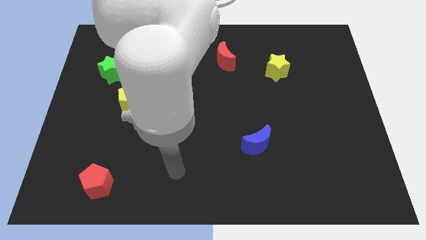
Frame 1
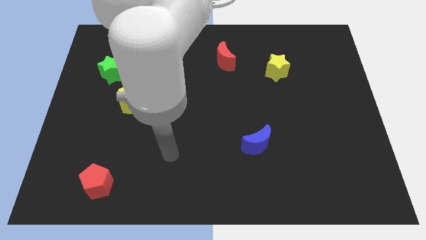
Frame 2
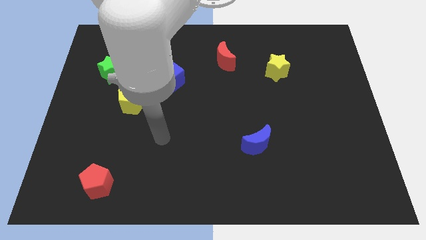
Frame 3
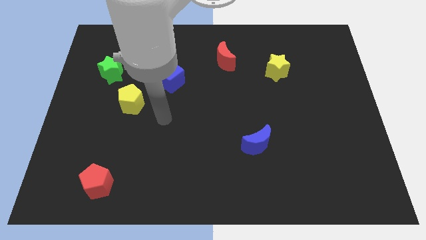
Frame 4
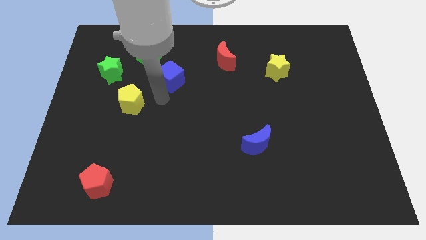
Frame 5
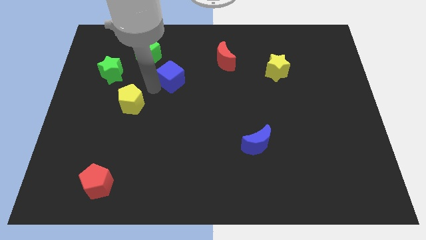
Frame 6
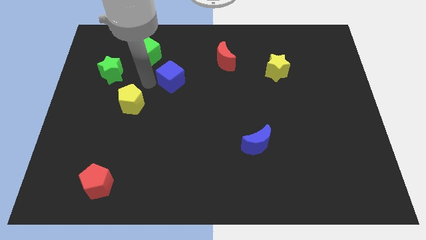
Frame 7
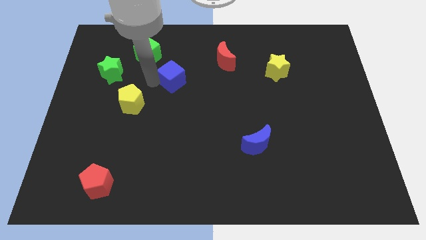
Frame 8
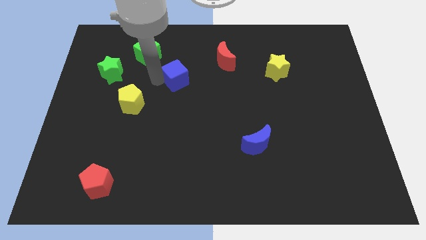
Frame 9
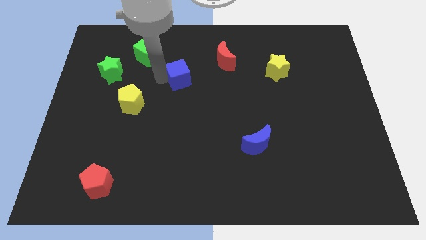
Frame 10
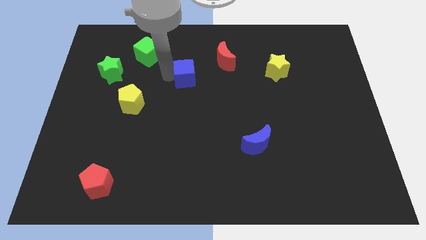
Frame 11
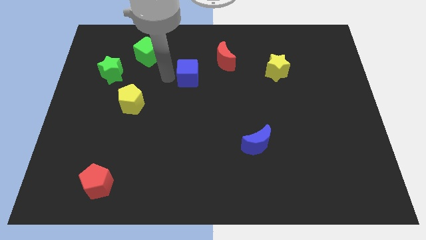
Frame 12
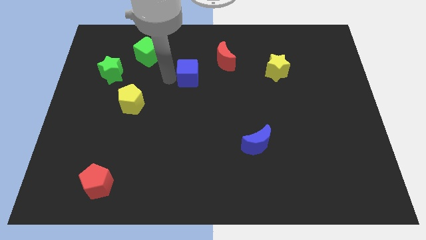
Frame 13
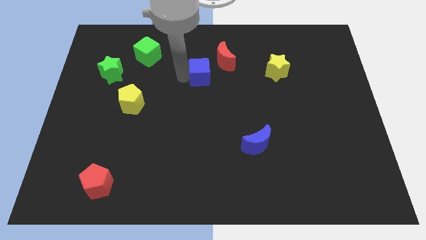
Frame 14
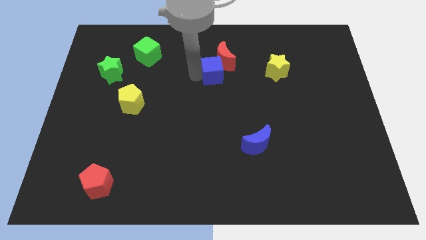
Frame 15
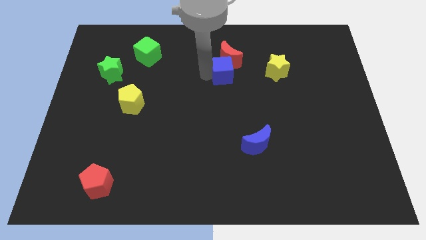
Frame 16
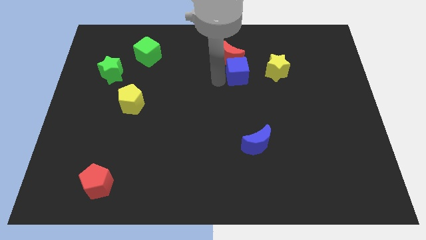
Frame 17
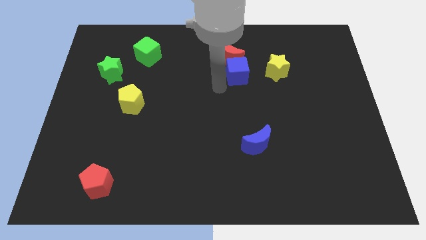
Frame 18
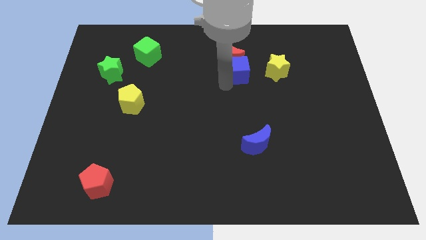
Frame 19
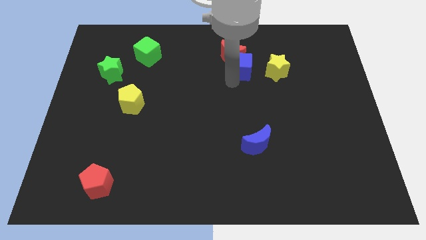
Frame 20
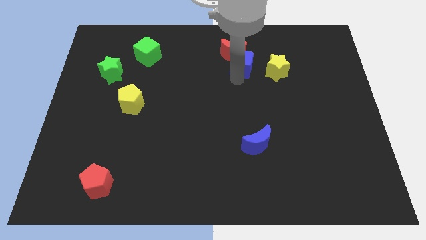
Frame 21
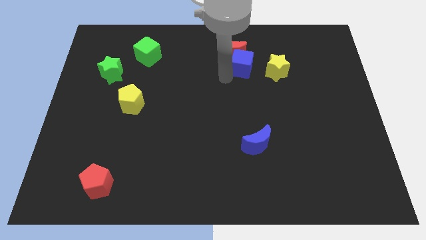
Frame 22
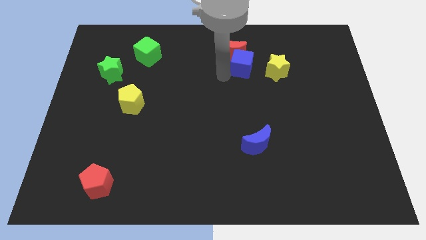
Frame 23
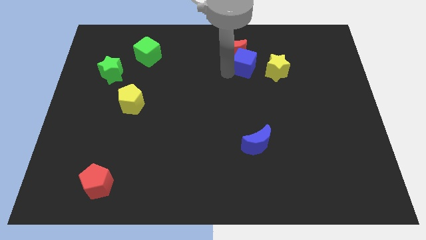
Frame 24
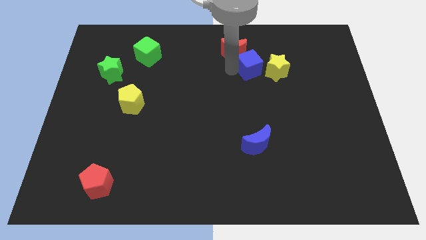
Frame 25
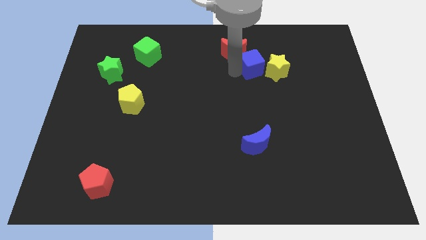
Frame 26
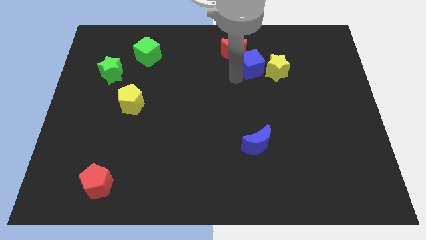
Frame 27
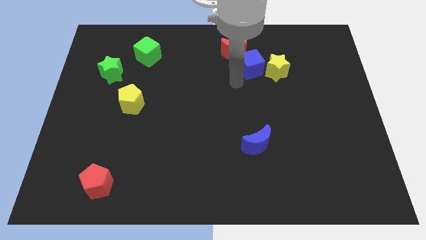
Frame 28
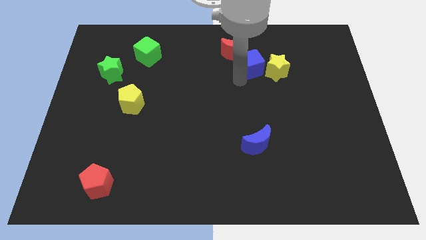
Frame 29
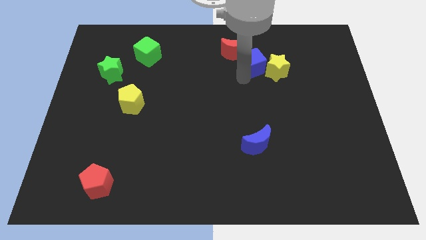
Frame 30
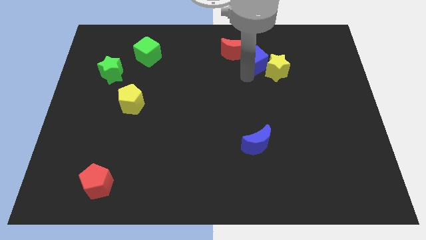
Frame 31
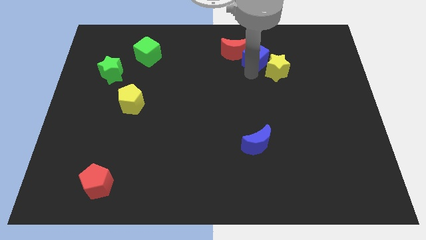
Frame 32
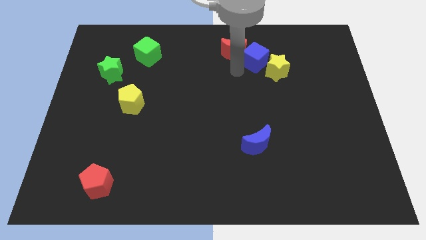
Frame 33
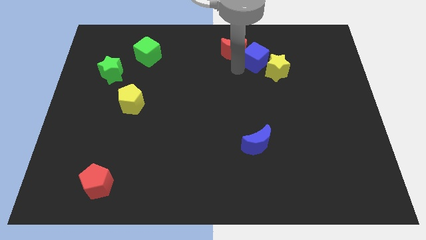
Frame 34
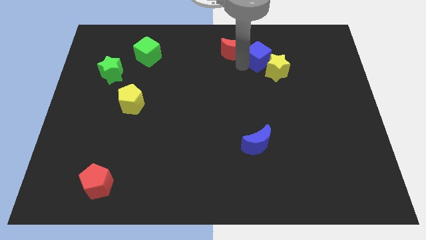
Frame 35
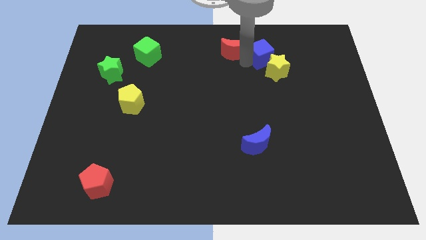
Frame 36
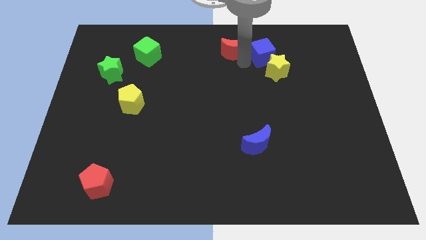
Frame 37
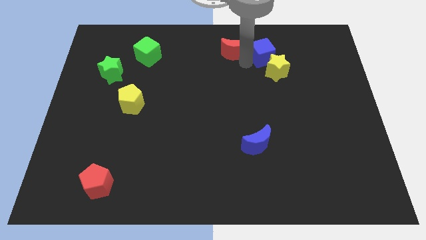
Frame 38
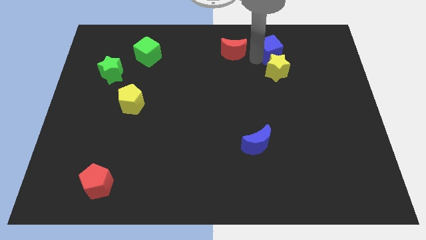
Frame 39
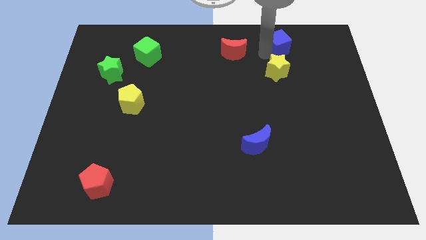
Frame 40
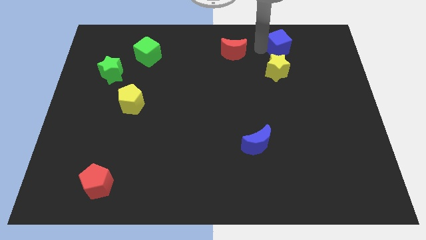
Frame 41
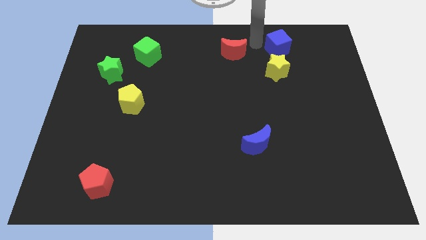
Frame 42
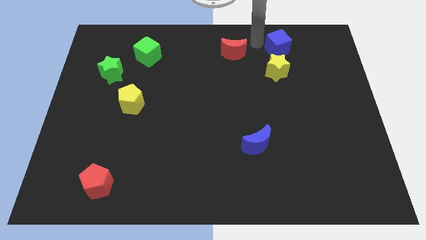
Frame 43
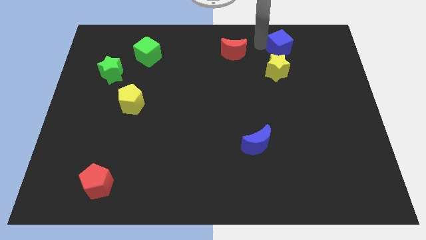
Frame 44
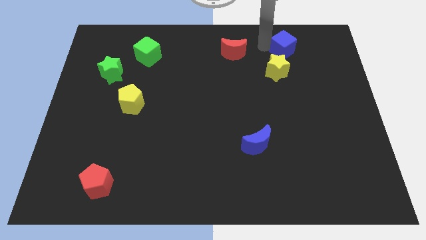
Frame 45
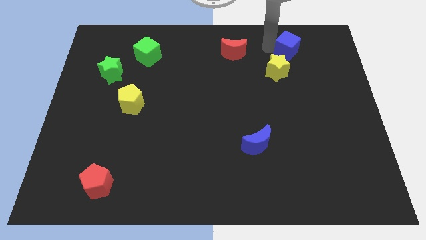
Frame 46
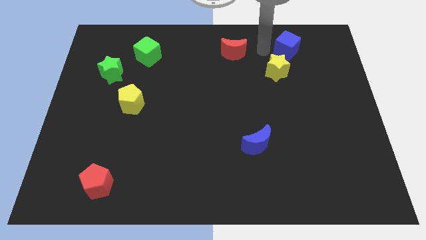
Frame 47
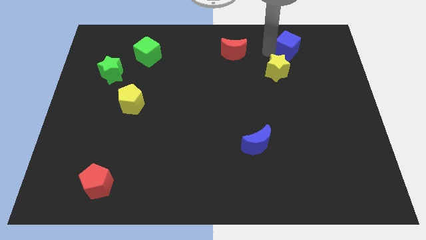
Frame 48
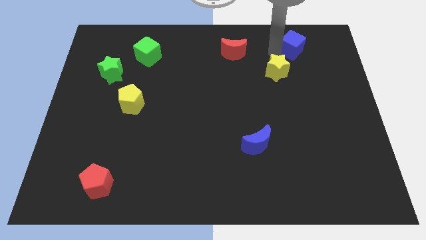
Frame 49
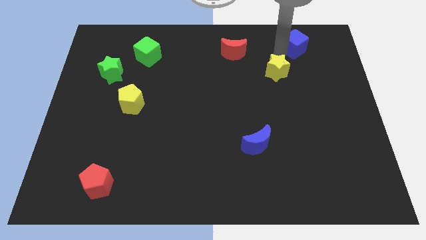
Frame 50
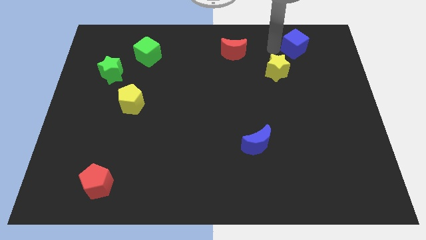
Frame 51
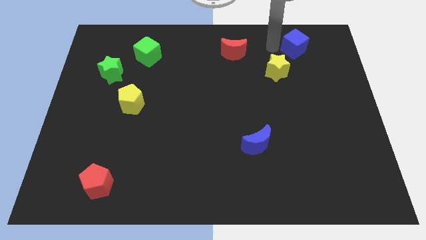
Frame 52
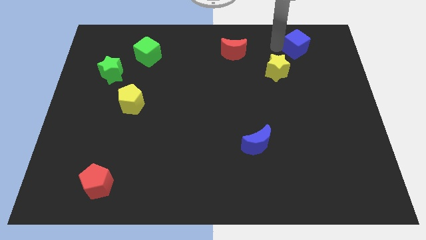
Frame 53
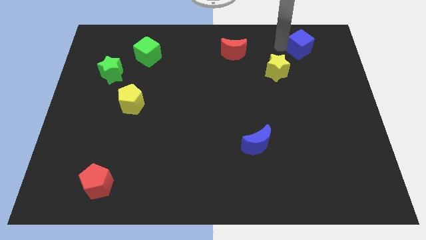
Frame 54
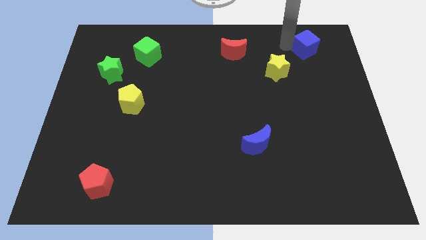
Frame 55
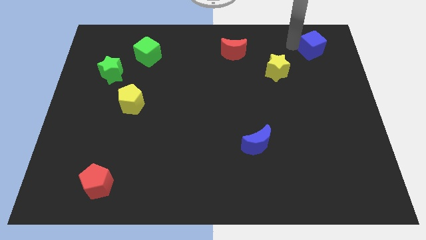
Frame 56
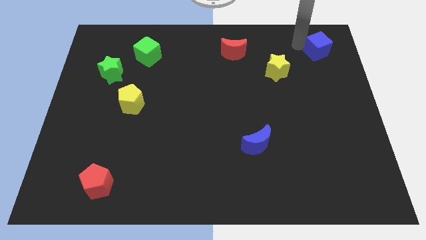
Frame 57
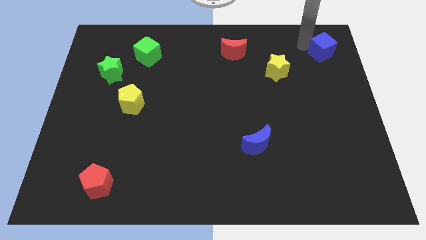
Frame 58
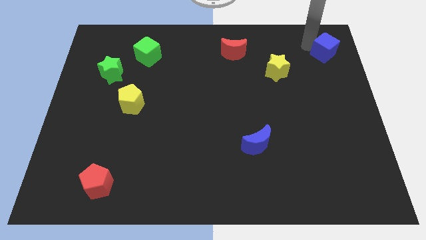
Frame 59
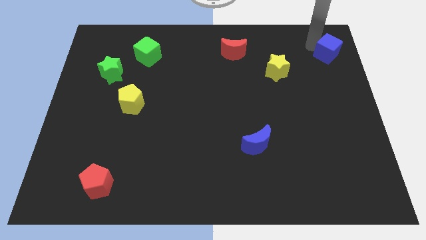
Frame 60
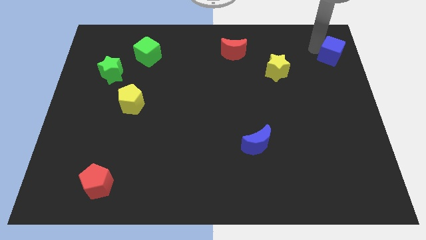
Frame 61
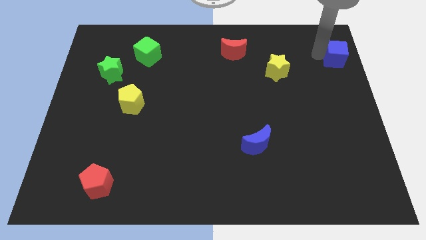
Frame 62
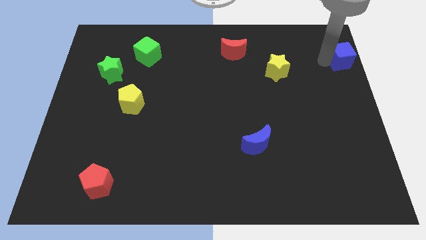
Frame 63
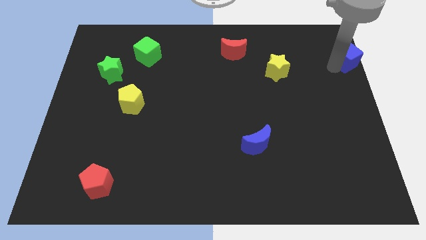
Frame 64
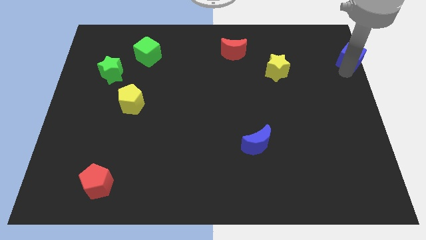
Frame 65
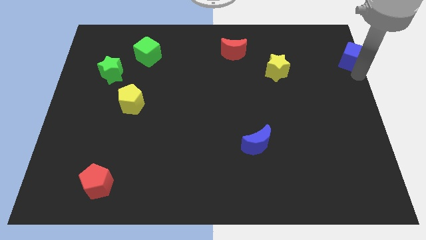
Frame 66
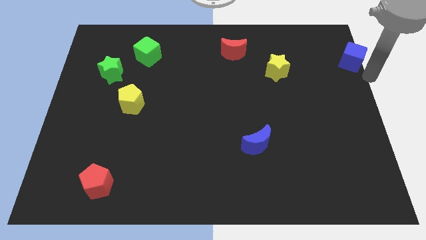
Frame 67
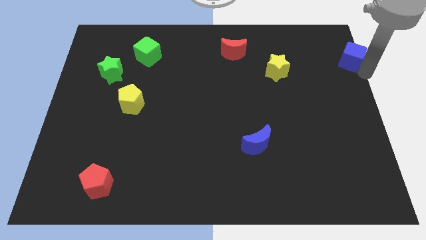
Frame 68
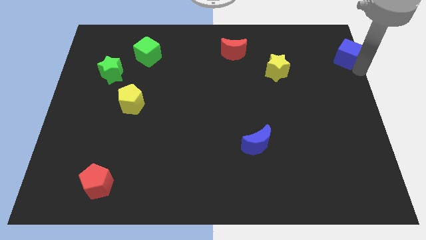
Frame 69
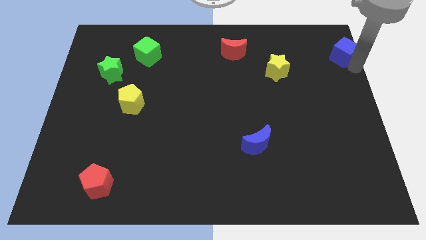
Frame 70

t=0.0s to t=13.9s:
put the blue cube to the top right
